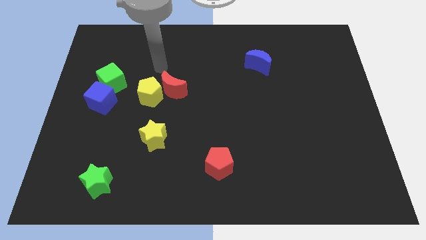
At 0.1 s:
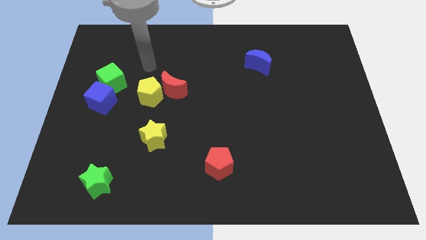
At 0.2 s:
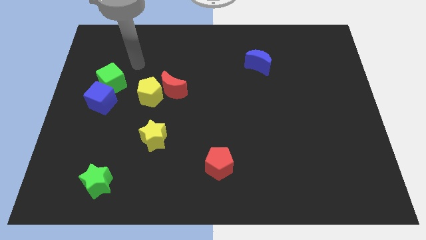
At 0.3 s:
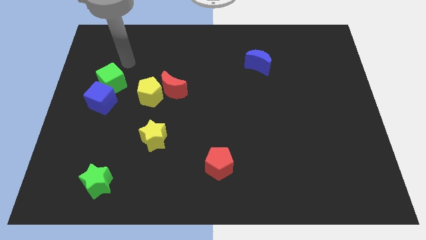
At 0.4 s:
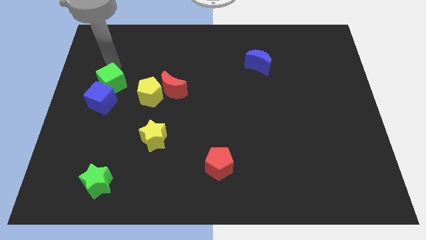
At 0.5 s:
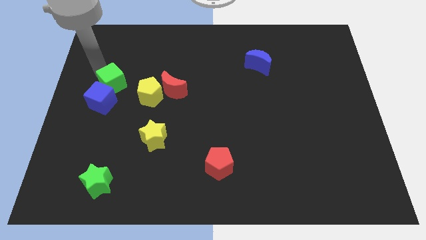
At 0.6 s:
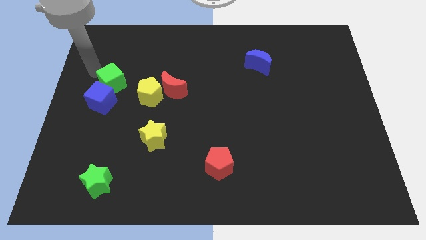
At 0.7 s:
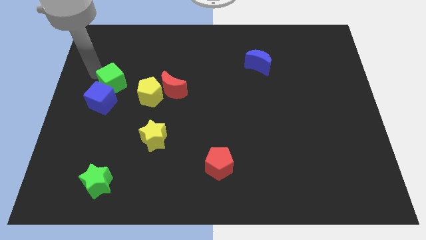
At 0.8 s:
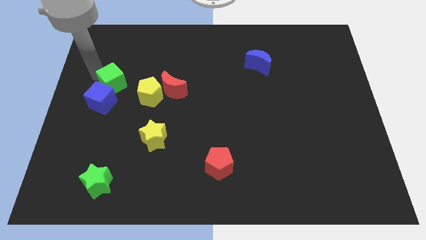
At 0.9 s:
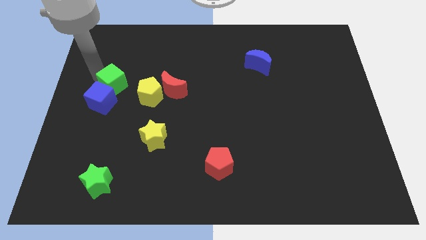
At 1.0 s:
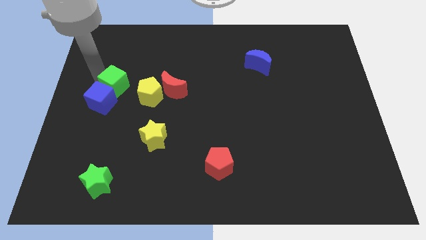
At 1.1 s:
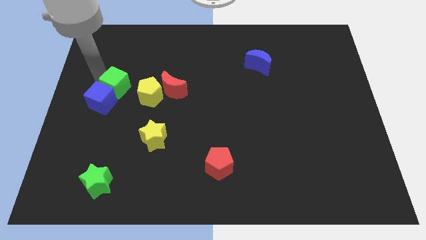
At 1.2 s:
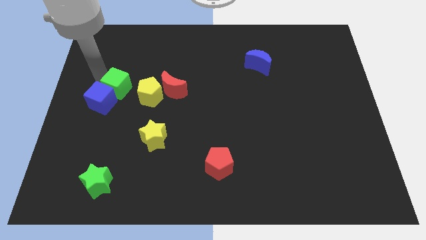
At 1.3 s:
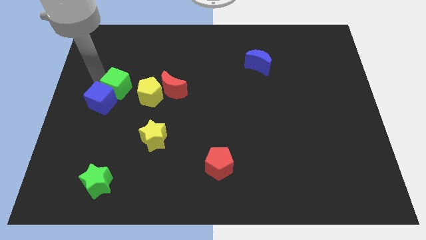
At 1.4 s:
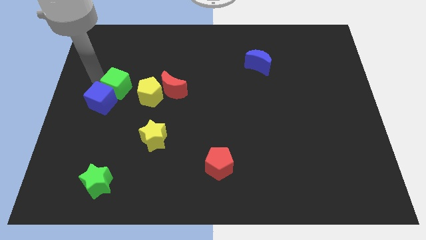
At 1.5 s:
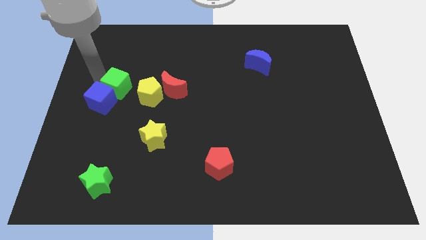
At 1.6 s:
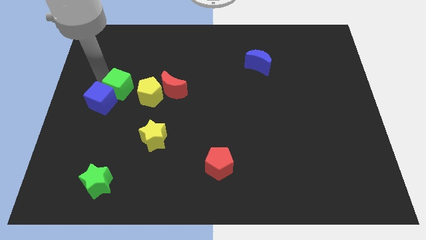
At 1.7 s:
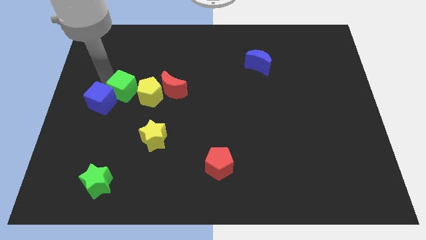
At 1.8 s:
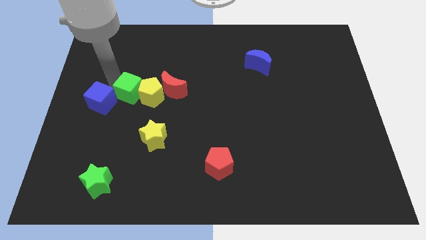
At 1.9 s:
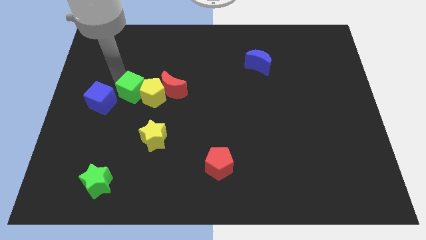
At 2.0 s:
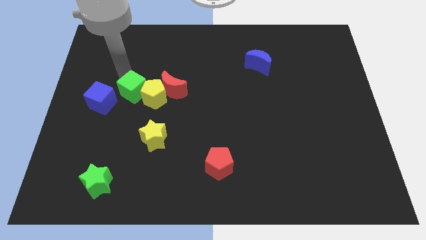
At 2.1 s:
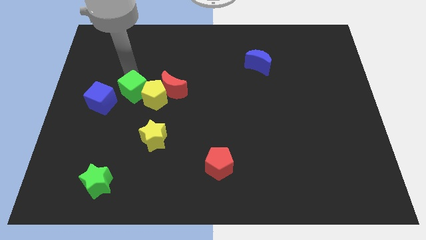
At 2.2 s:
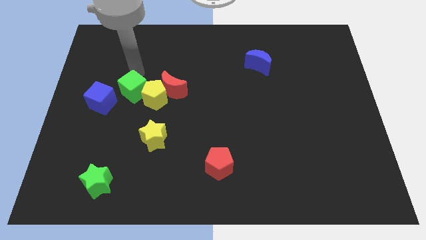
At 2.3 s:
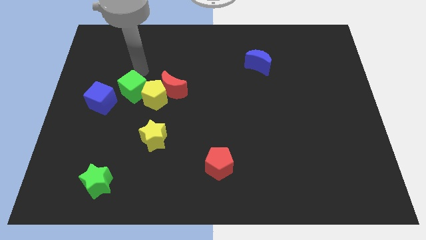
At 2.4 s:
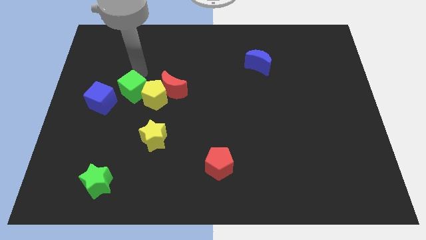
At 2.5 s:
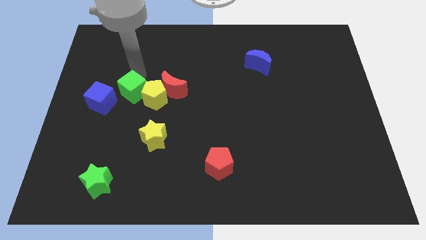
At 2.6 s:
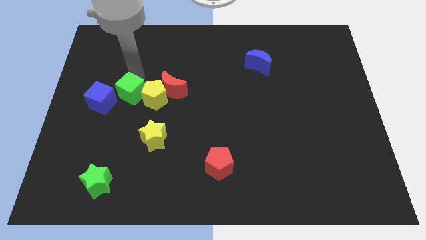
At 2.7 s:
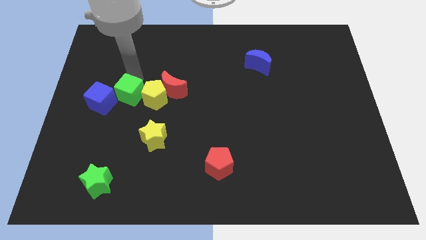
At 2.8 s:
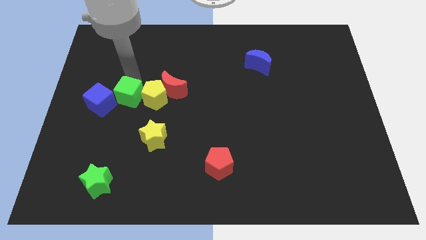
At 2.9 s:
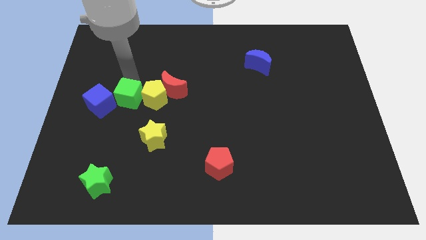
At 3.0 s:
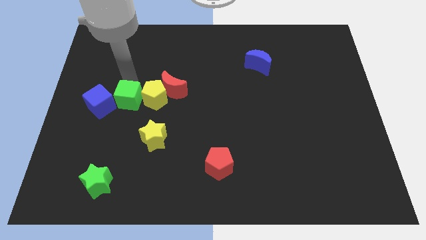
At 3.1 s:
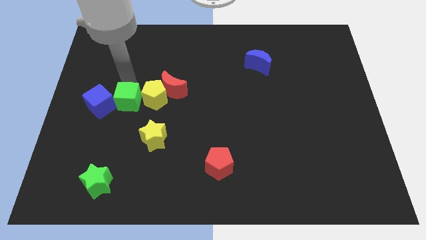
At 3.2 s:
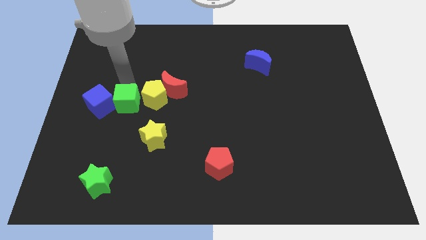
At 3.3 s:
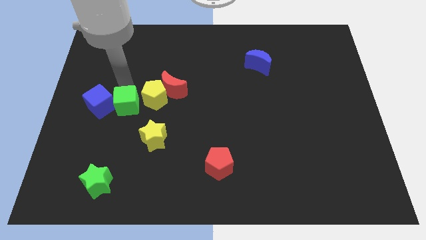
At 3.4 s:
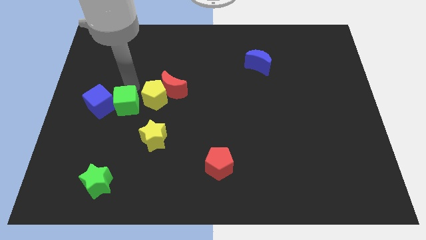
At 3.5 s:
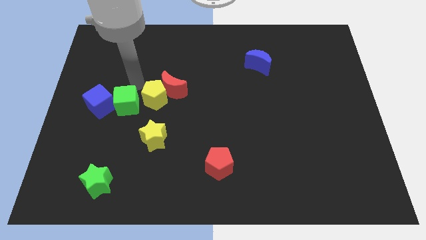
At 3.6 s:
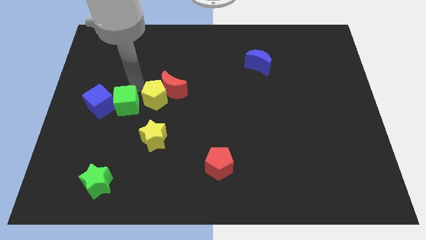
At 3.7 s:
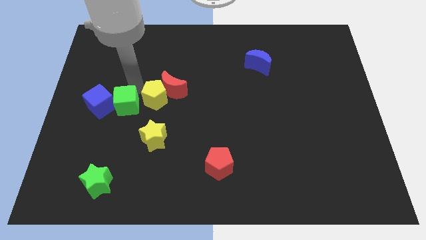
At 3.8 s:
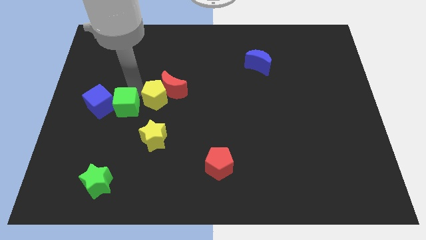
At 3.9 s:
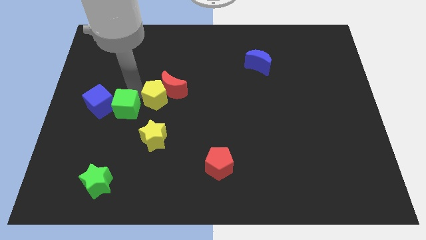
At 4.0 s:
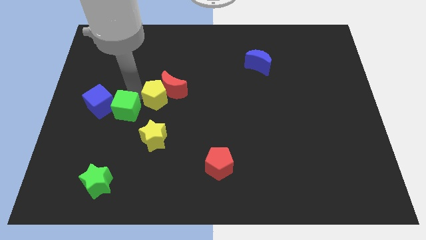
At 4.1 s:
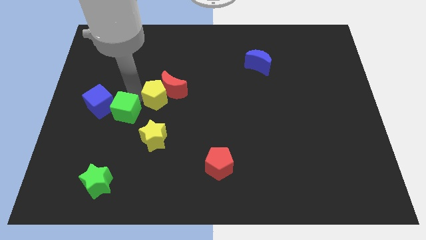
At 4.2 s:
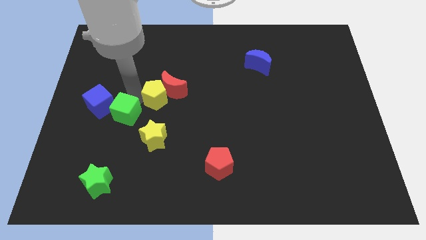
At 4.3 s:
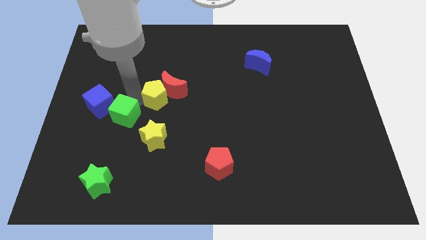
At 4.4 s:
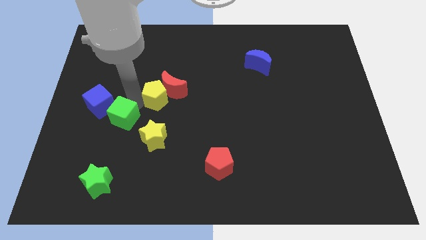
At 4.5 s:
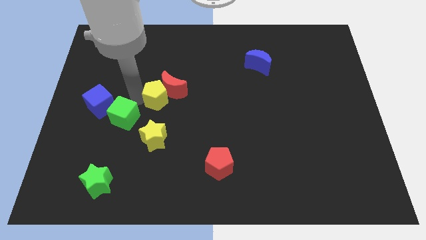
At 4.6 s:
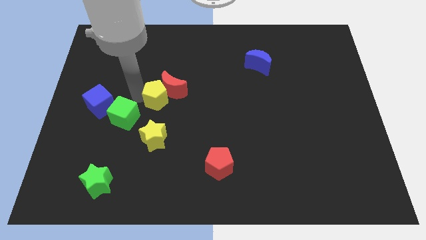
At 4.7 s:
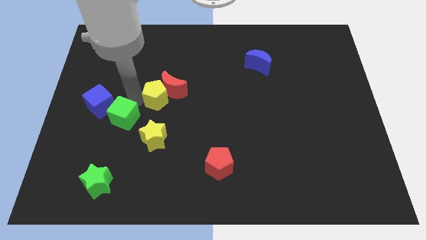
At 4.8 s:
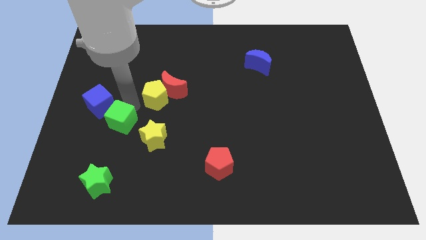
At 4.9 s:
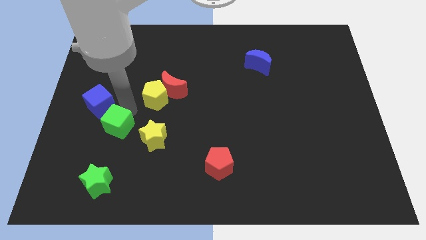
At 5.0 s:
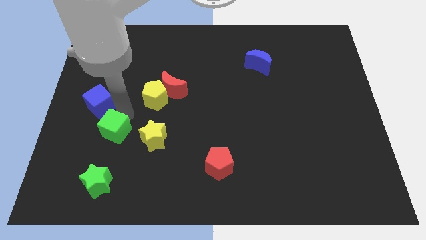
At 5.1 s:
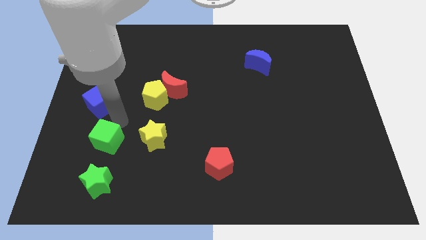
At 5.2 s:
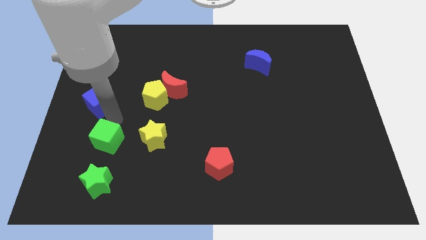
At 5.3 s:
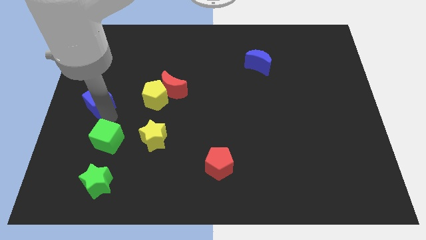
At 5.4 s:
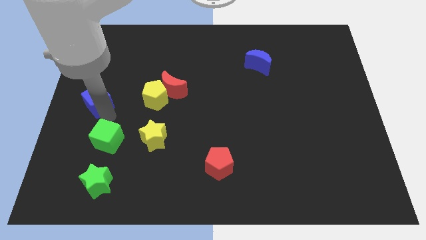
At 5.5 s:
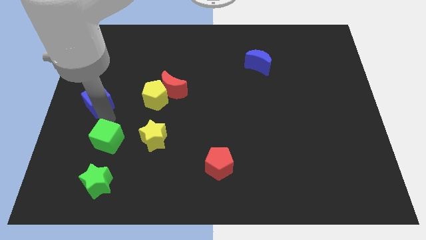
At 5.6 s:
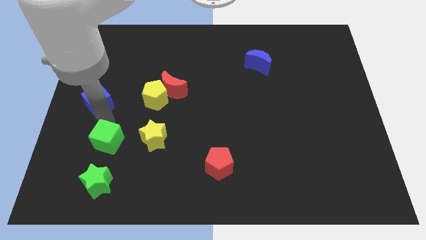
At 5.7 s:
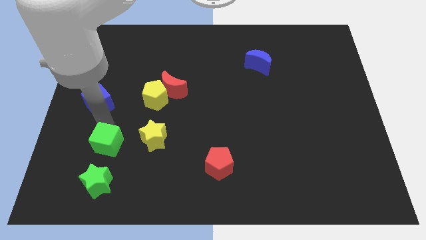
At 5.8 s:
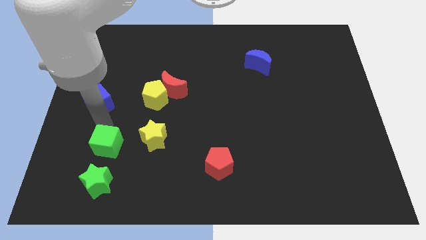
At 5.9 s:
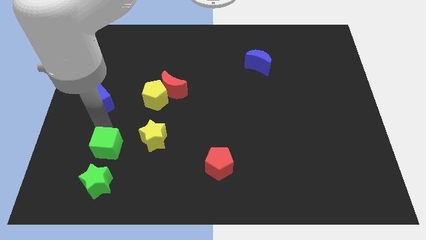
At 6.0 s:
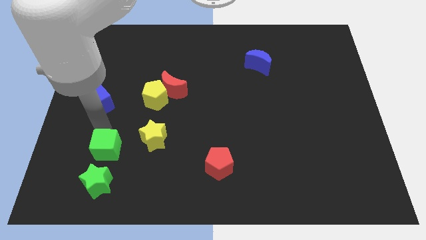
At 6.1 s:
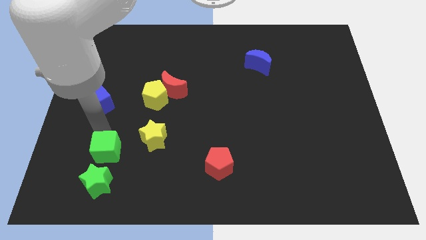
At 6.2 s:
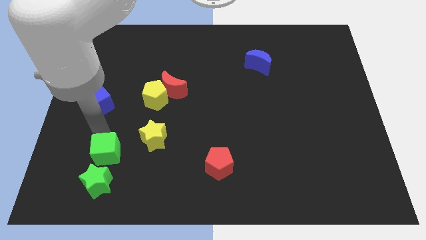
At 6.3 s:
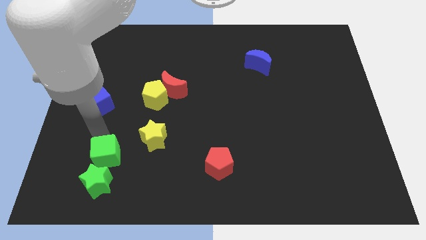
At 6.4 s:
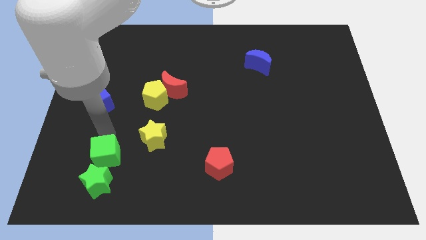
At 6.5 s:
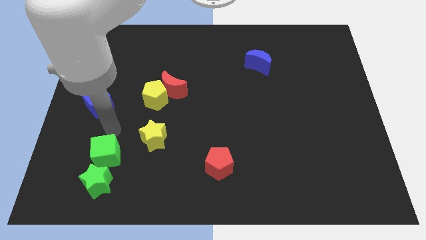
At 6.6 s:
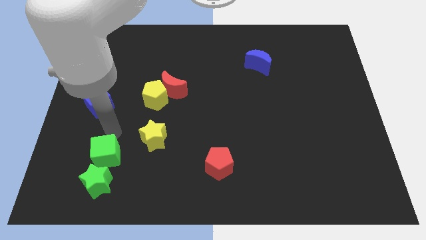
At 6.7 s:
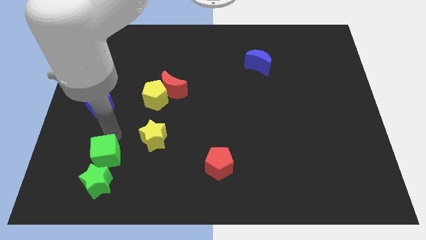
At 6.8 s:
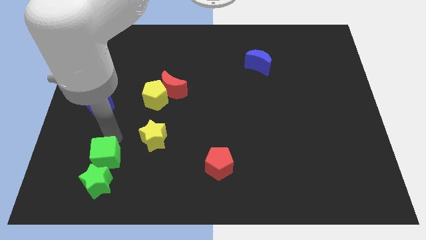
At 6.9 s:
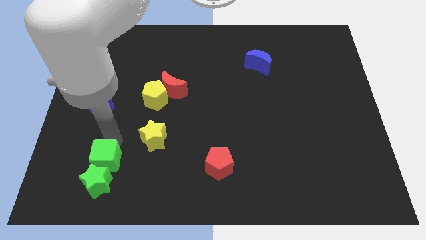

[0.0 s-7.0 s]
move the green cube close to the green star
